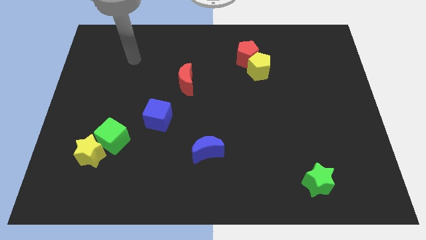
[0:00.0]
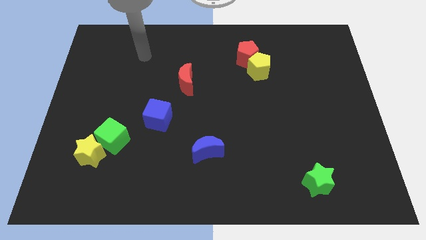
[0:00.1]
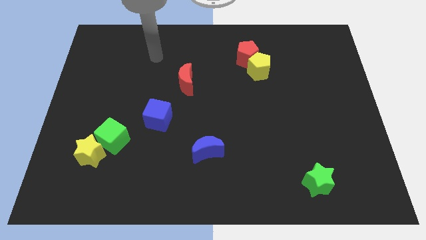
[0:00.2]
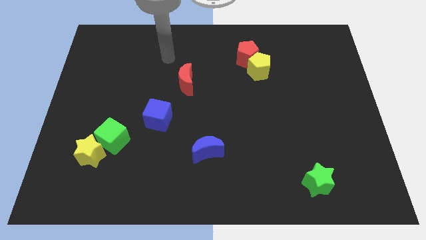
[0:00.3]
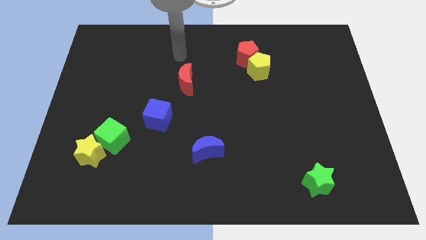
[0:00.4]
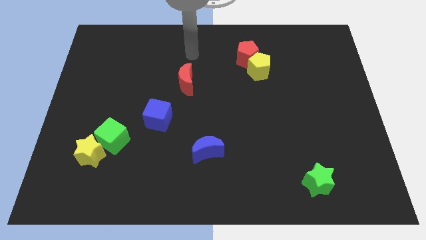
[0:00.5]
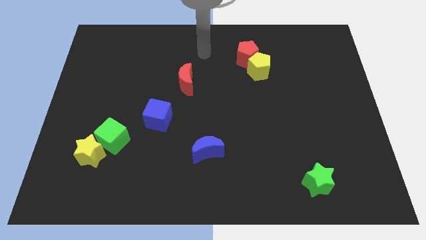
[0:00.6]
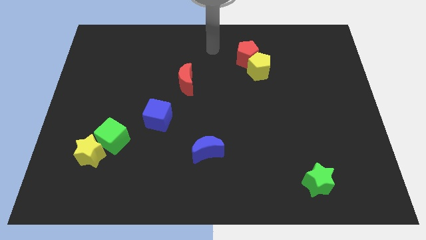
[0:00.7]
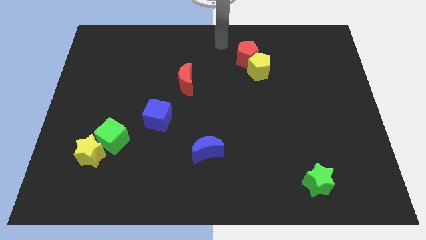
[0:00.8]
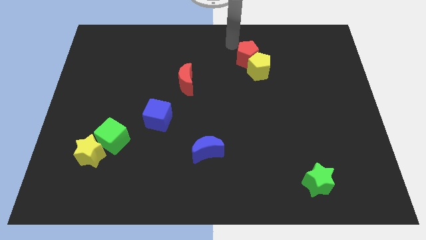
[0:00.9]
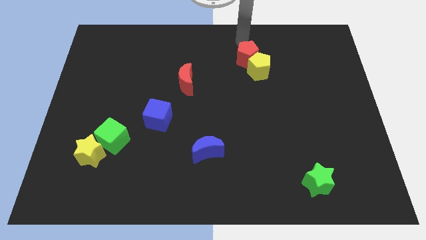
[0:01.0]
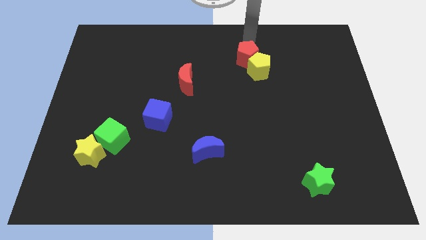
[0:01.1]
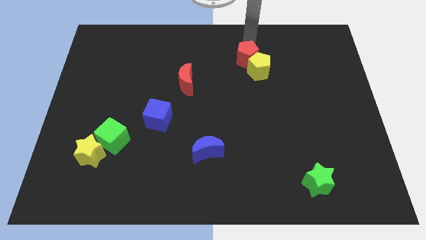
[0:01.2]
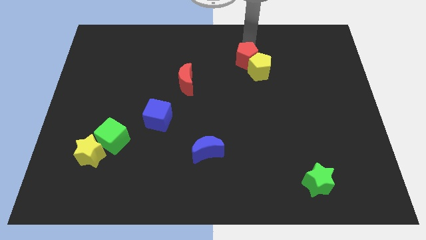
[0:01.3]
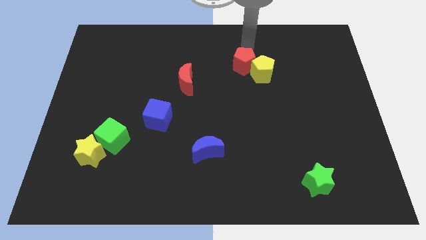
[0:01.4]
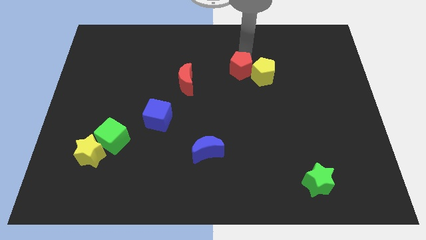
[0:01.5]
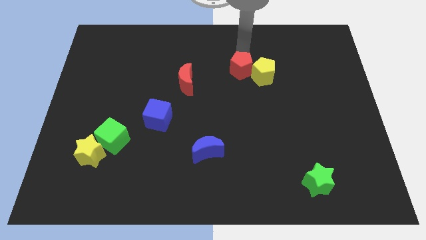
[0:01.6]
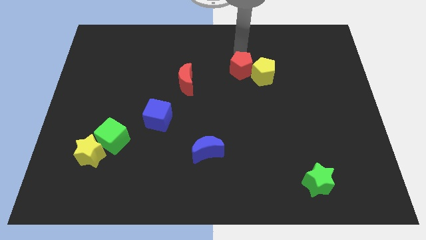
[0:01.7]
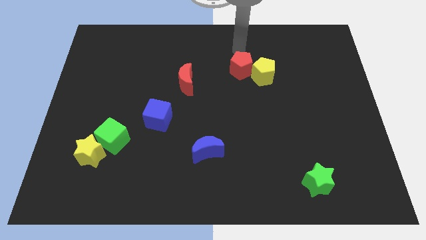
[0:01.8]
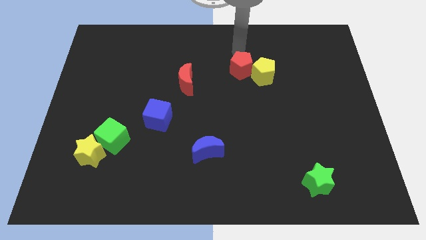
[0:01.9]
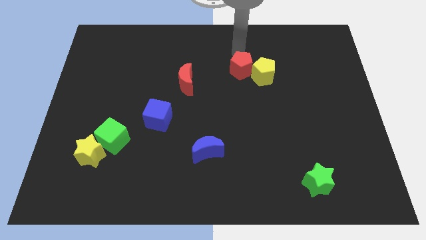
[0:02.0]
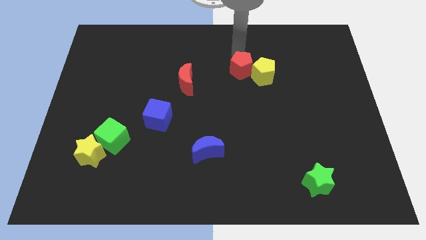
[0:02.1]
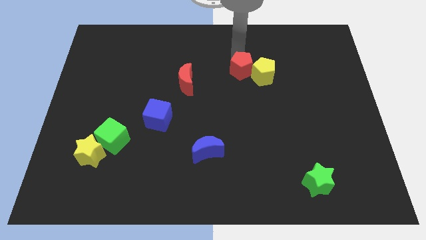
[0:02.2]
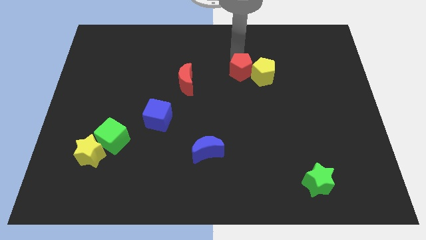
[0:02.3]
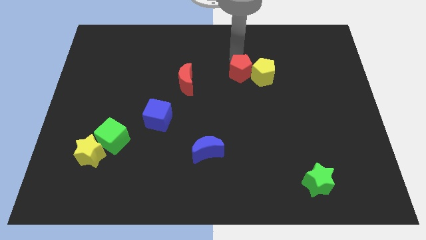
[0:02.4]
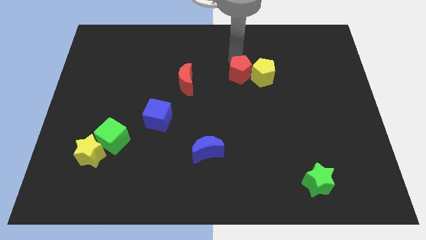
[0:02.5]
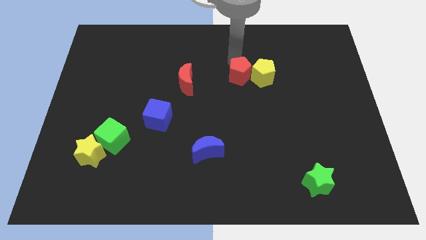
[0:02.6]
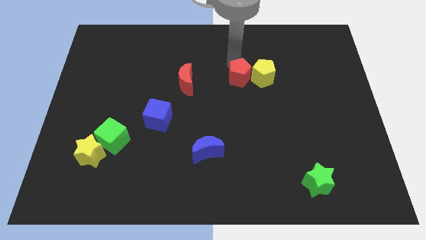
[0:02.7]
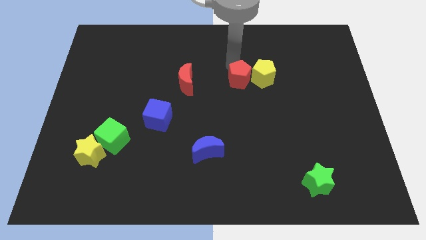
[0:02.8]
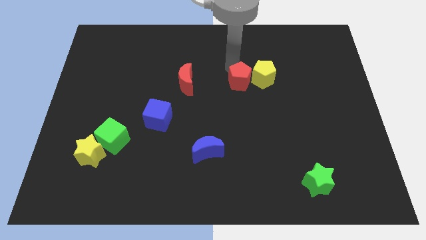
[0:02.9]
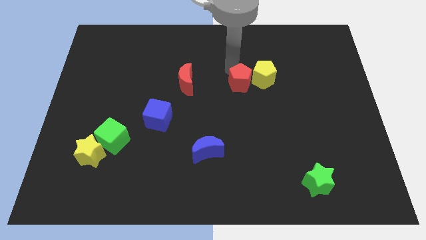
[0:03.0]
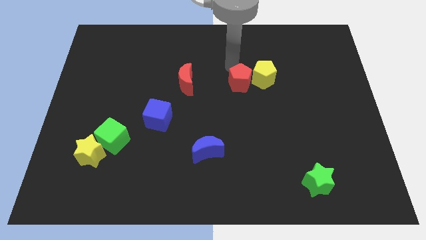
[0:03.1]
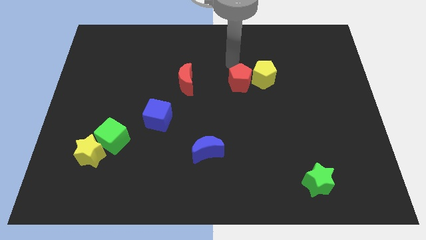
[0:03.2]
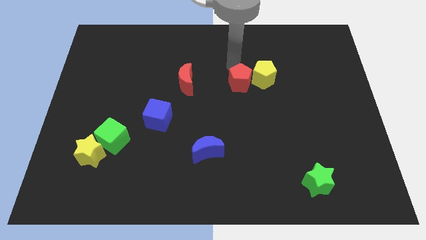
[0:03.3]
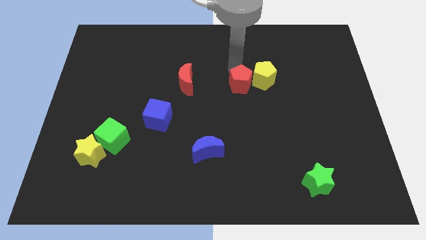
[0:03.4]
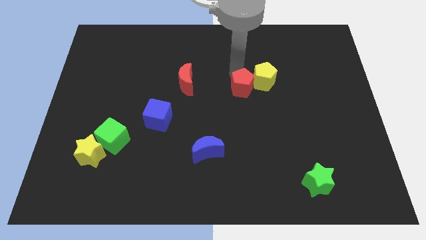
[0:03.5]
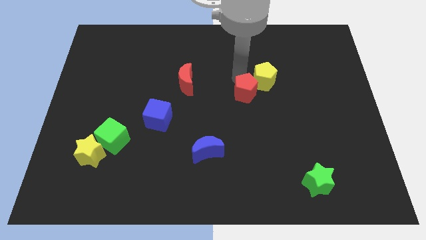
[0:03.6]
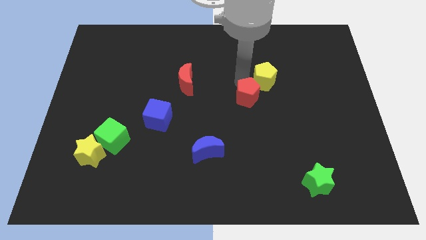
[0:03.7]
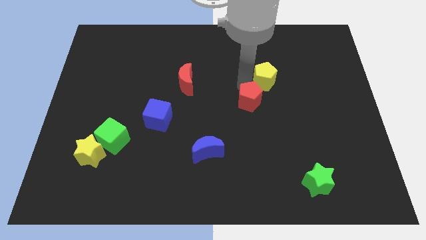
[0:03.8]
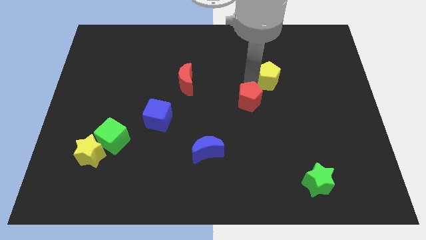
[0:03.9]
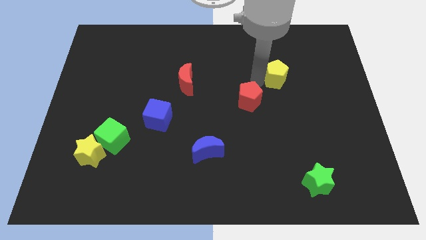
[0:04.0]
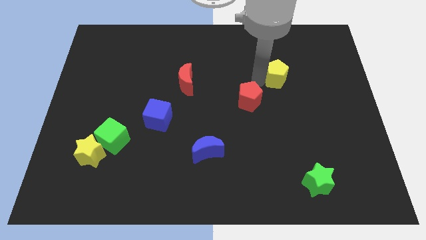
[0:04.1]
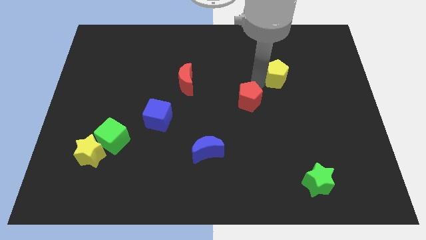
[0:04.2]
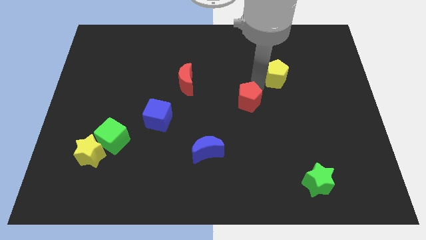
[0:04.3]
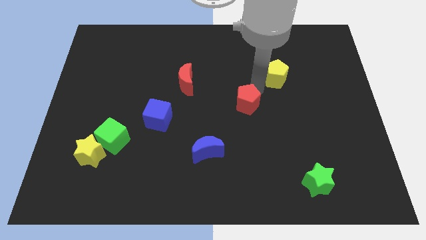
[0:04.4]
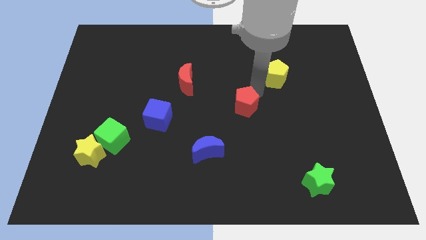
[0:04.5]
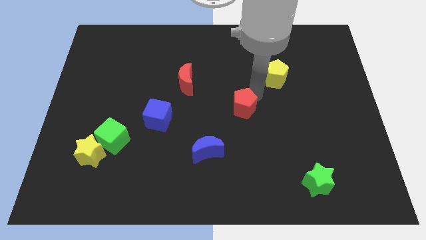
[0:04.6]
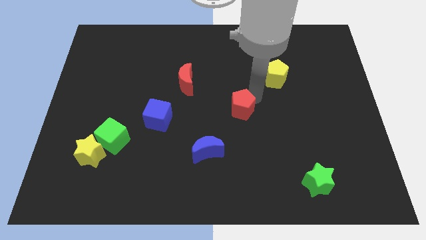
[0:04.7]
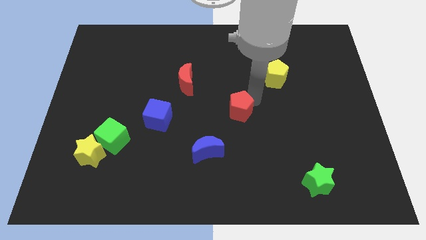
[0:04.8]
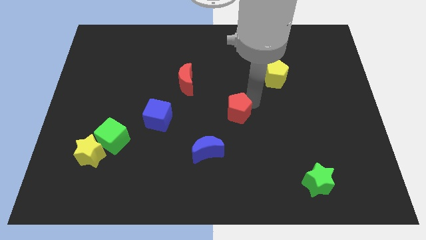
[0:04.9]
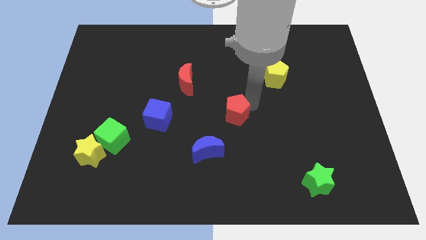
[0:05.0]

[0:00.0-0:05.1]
put the red pentagon diagonally up and to the right of the blue moon

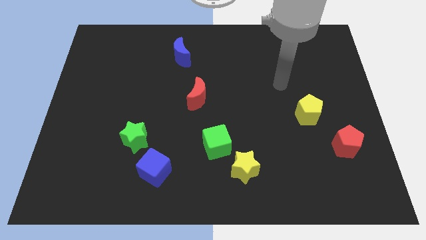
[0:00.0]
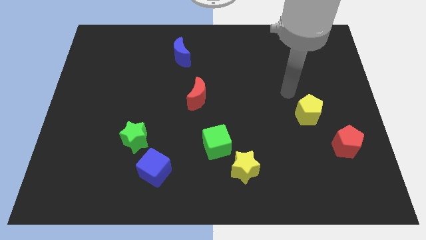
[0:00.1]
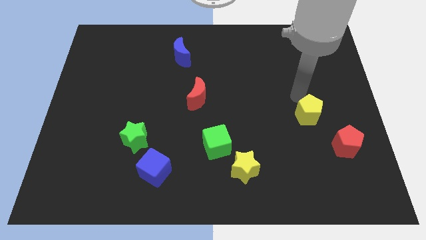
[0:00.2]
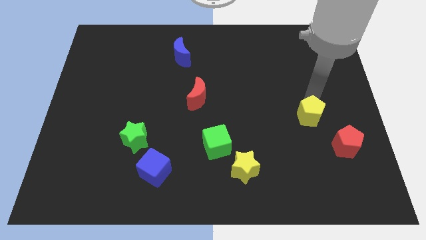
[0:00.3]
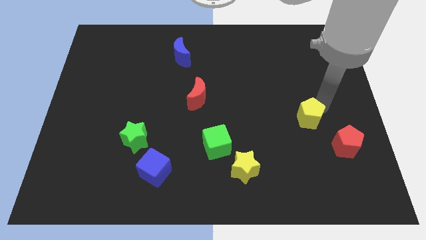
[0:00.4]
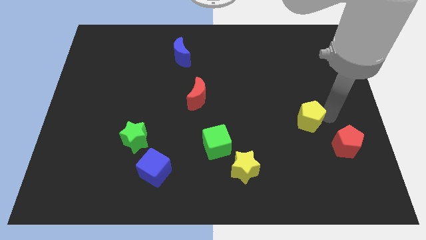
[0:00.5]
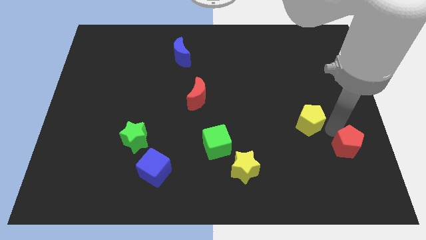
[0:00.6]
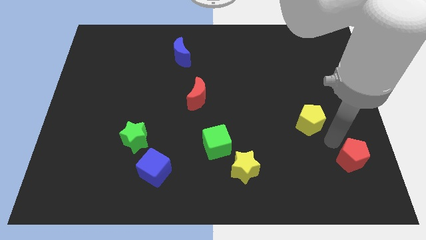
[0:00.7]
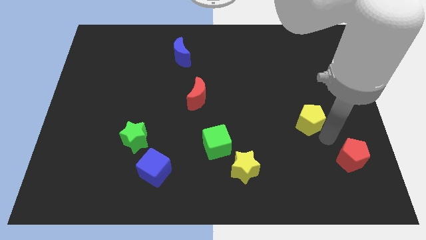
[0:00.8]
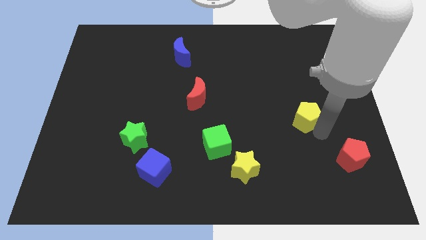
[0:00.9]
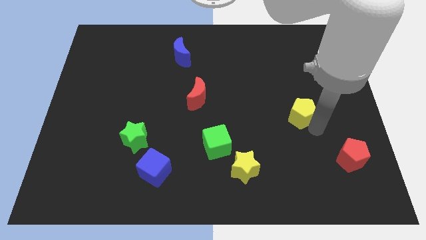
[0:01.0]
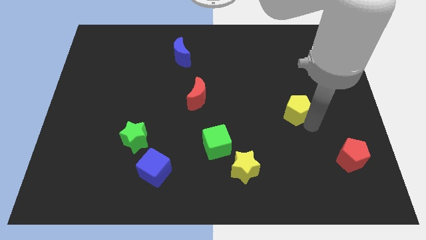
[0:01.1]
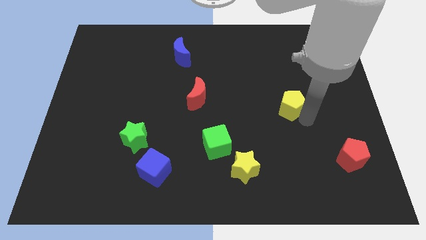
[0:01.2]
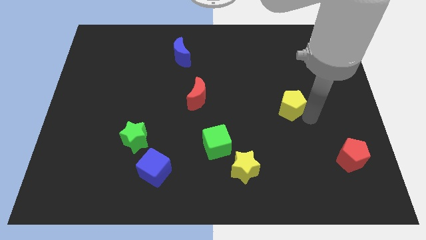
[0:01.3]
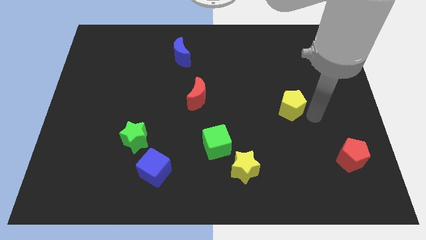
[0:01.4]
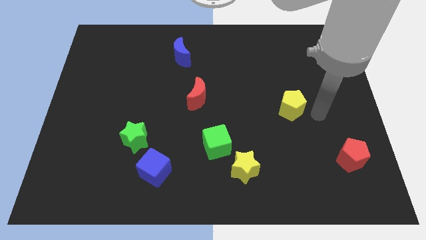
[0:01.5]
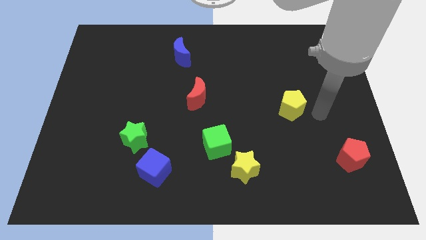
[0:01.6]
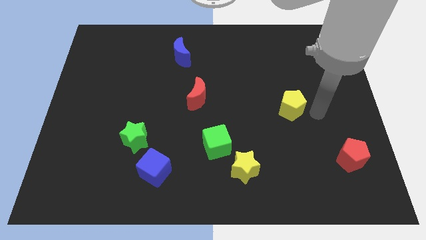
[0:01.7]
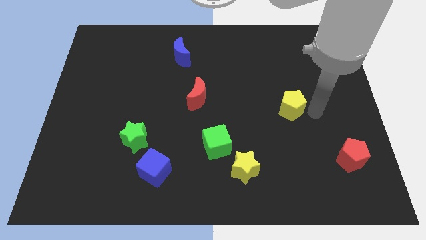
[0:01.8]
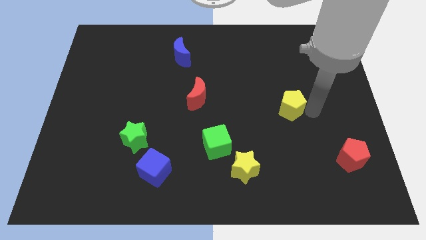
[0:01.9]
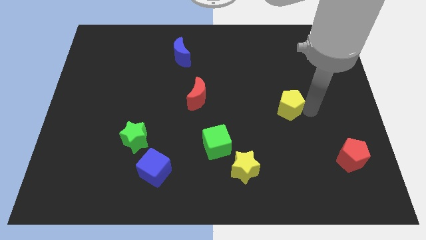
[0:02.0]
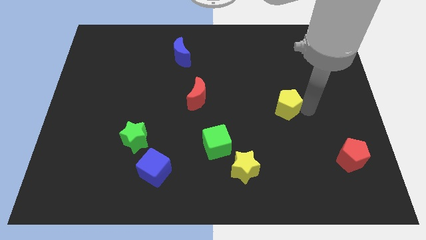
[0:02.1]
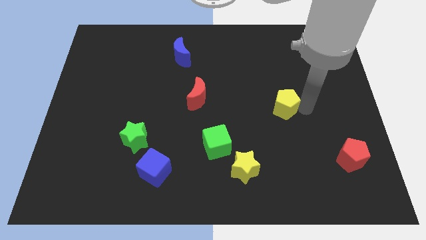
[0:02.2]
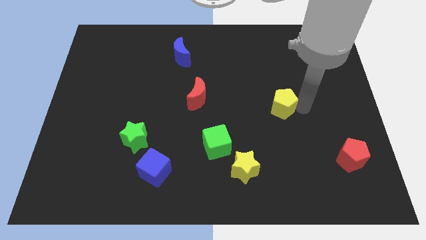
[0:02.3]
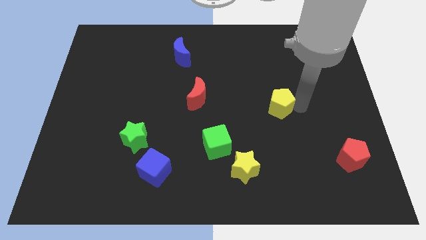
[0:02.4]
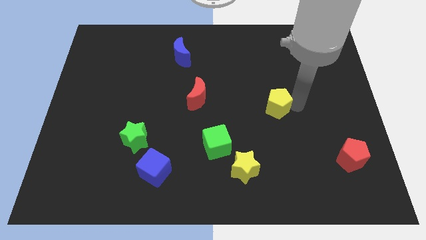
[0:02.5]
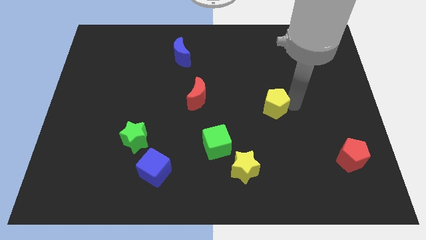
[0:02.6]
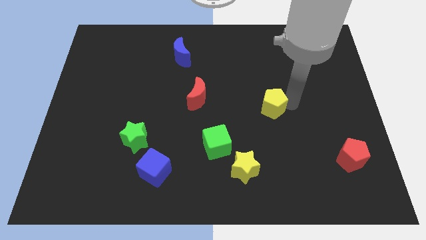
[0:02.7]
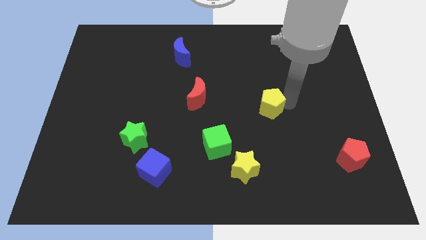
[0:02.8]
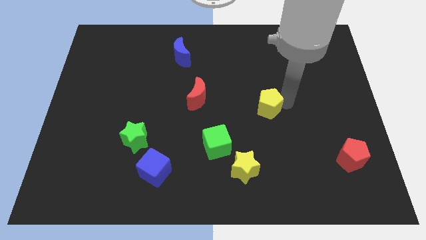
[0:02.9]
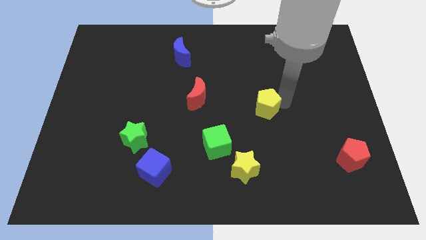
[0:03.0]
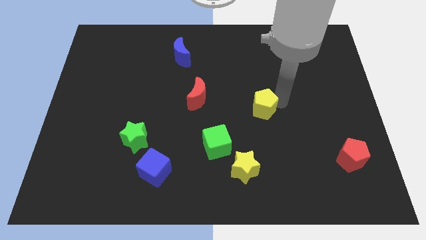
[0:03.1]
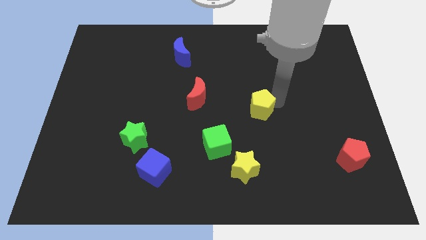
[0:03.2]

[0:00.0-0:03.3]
move the yellow pentagon just right of the red moon
